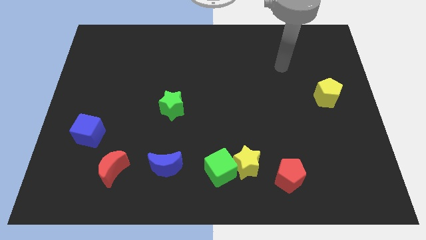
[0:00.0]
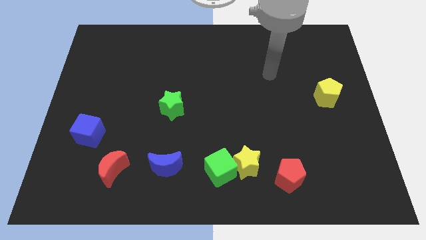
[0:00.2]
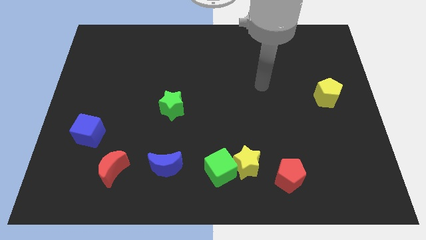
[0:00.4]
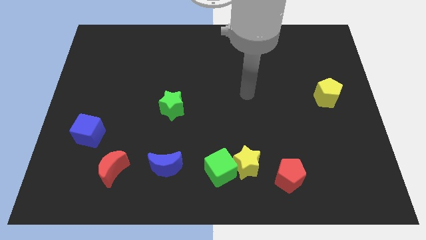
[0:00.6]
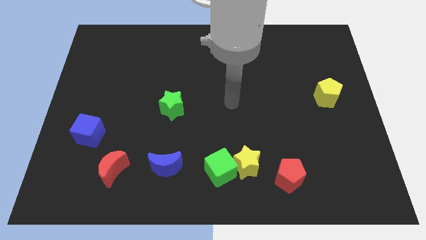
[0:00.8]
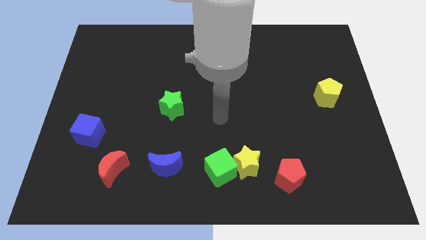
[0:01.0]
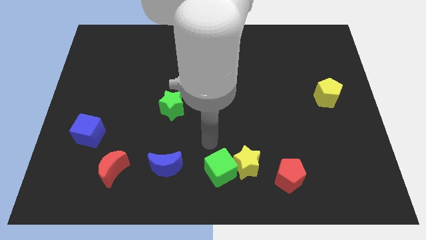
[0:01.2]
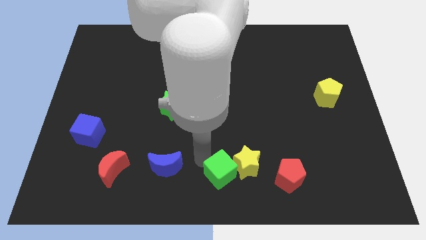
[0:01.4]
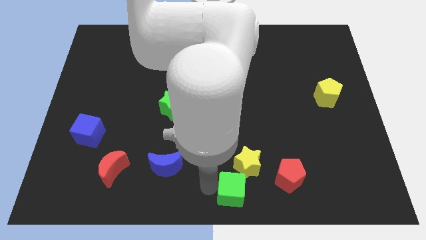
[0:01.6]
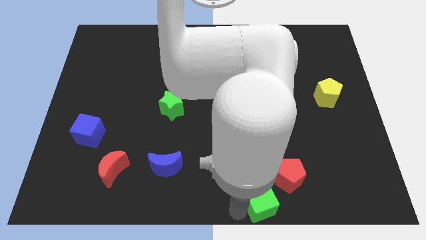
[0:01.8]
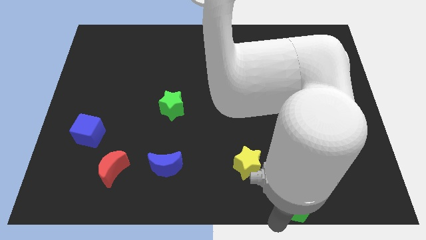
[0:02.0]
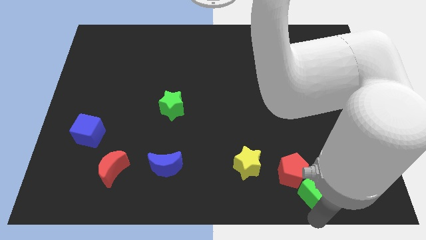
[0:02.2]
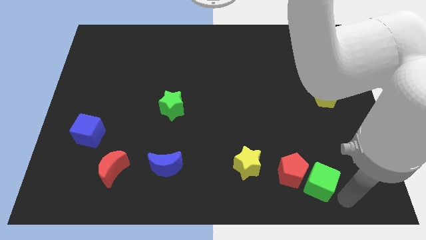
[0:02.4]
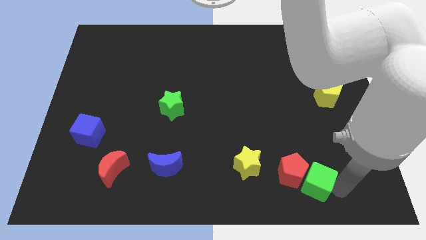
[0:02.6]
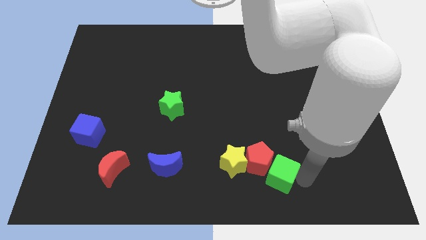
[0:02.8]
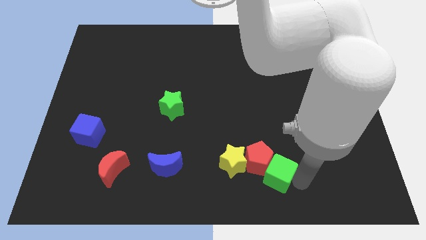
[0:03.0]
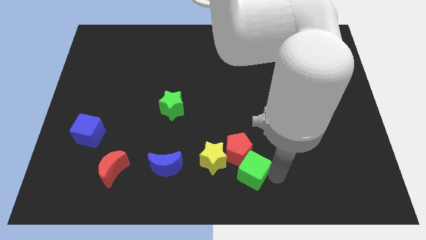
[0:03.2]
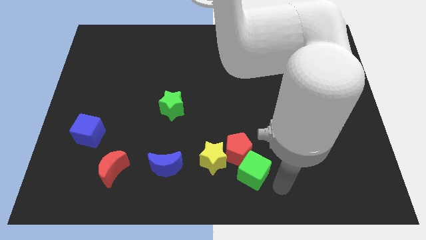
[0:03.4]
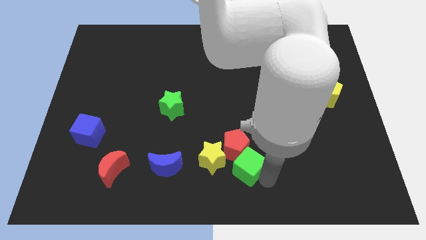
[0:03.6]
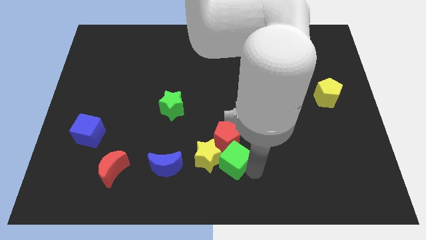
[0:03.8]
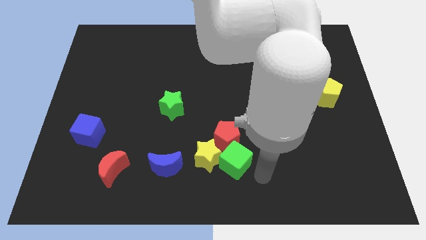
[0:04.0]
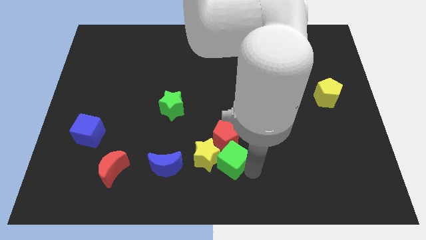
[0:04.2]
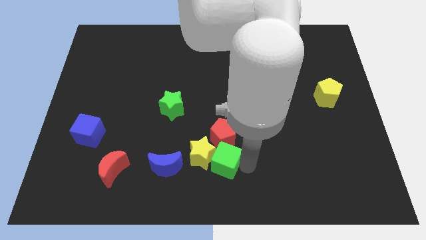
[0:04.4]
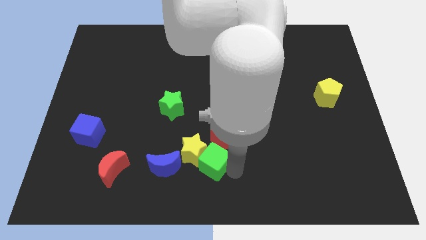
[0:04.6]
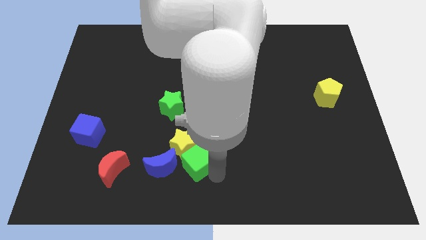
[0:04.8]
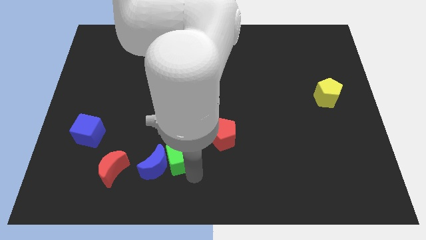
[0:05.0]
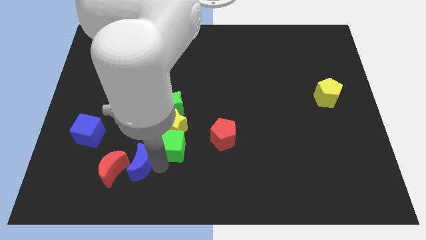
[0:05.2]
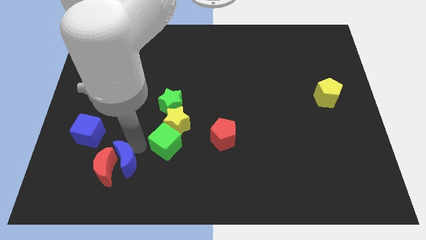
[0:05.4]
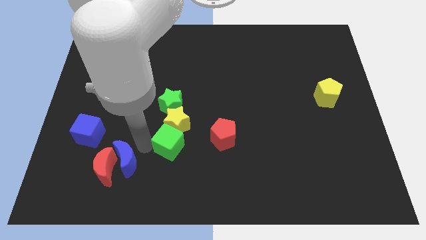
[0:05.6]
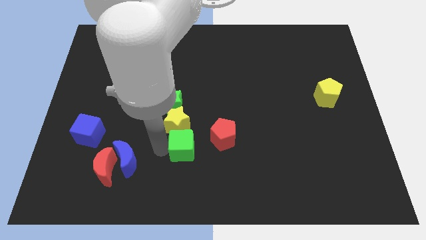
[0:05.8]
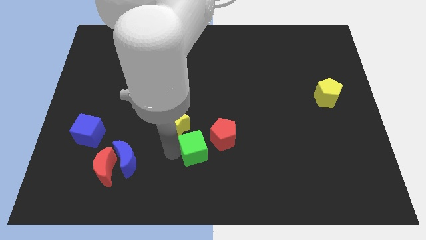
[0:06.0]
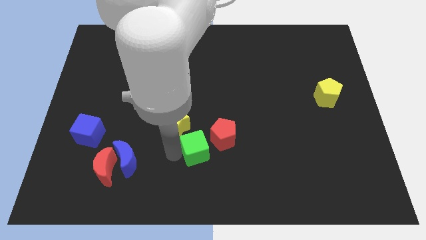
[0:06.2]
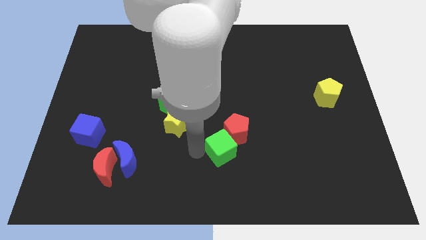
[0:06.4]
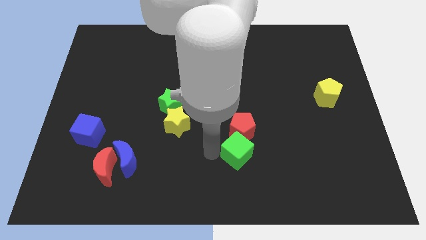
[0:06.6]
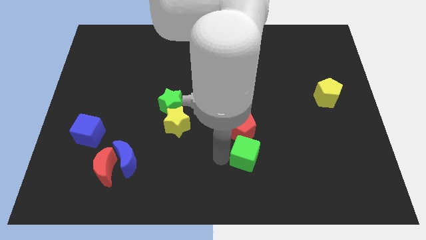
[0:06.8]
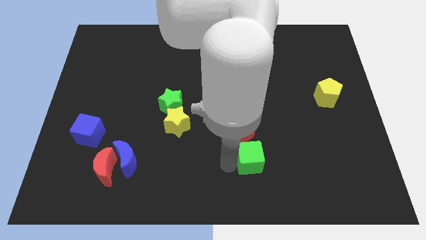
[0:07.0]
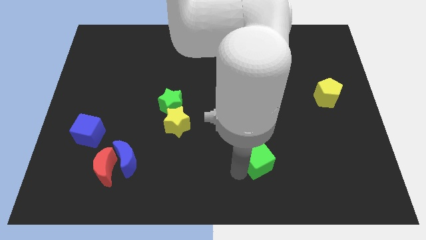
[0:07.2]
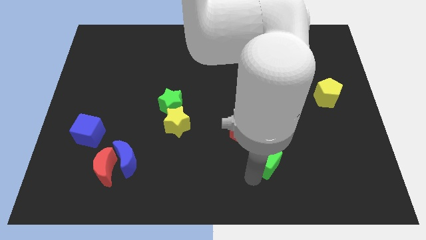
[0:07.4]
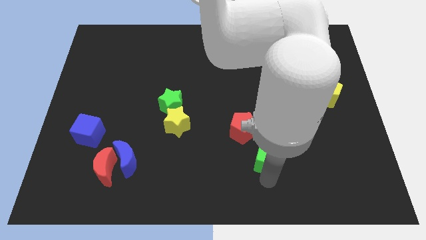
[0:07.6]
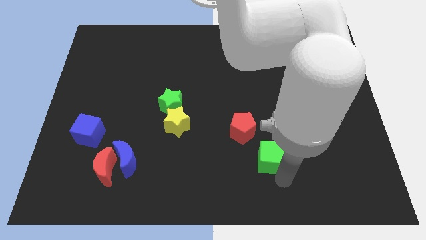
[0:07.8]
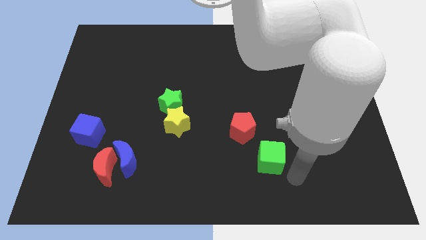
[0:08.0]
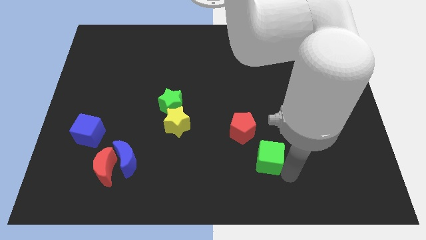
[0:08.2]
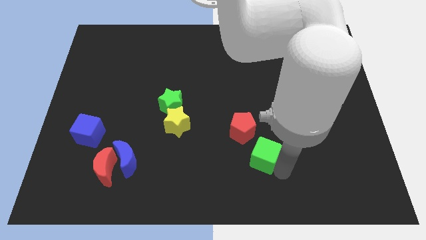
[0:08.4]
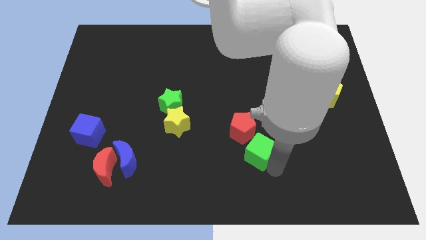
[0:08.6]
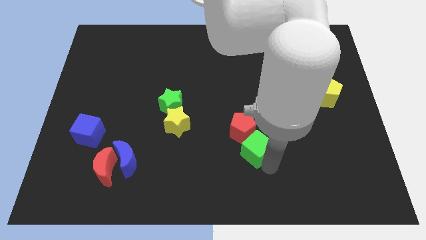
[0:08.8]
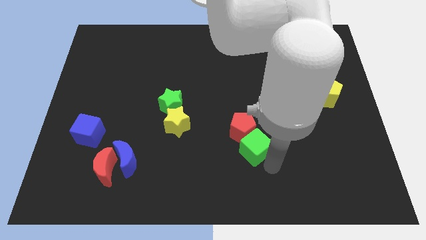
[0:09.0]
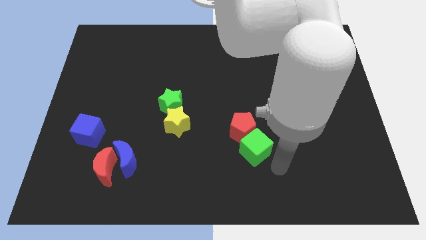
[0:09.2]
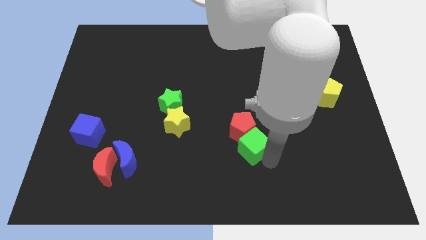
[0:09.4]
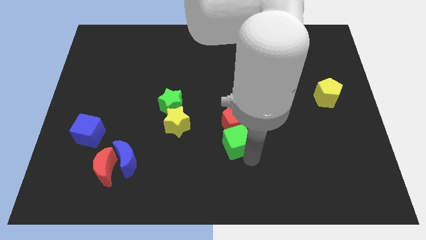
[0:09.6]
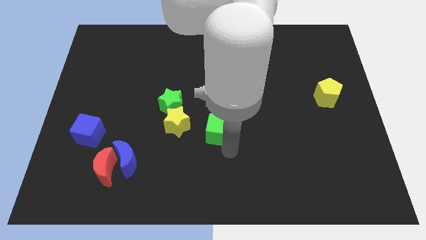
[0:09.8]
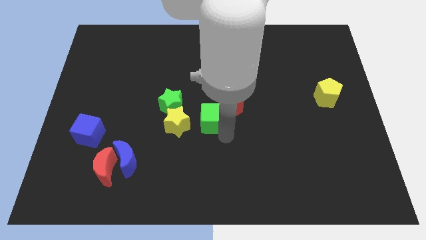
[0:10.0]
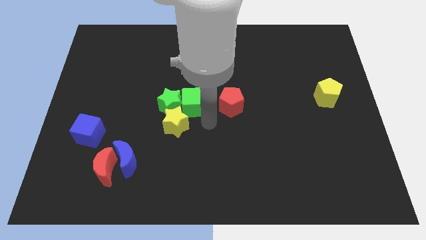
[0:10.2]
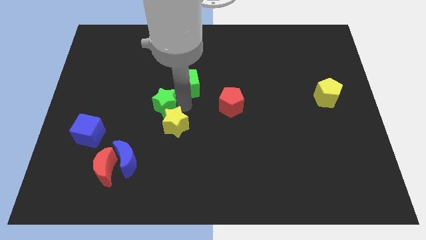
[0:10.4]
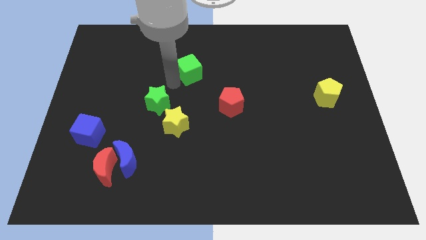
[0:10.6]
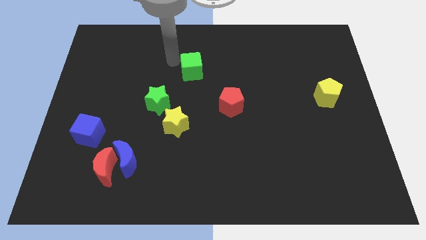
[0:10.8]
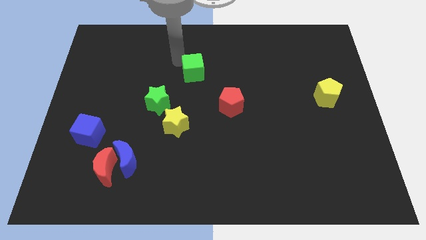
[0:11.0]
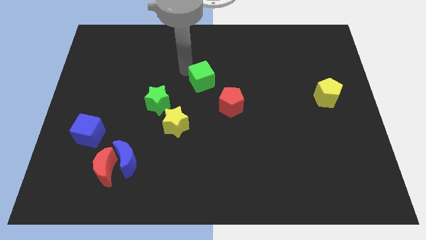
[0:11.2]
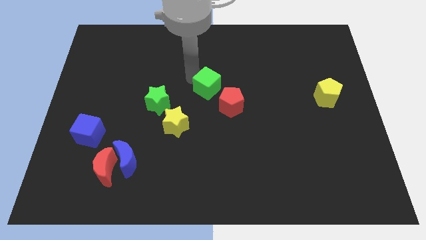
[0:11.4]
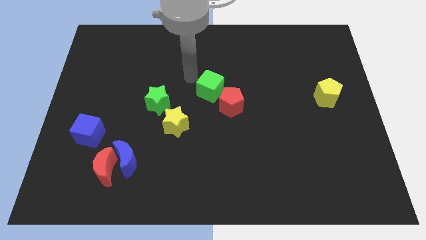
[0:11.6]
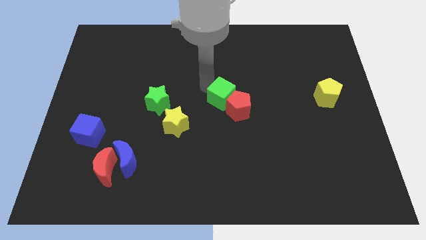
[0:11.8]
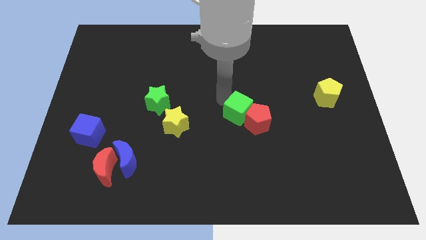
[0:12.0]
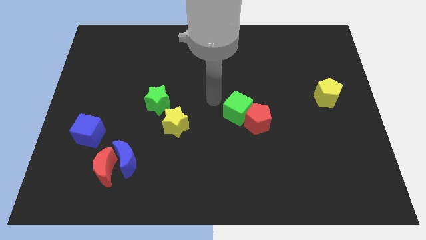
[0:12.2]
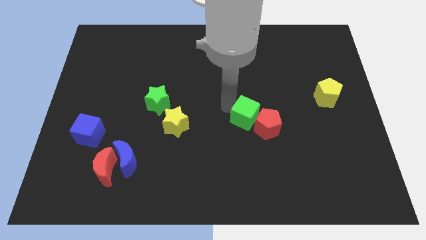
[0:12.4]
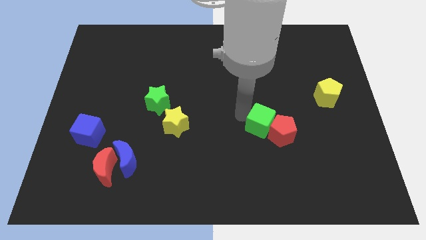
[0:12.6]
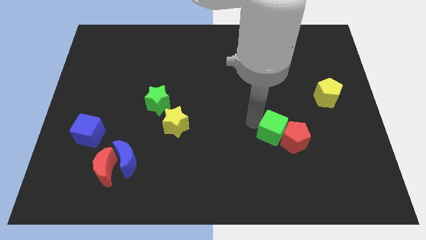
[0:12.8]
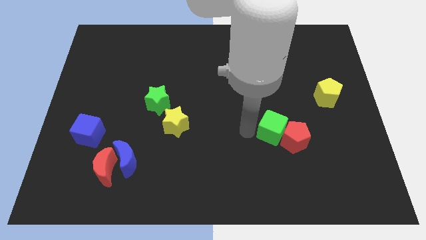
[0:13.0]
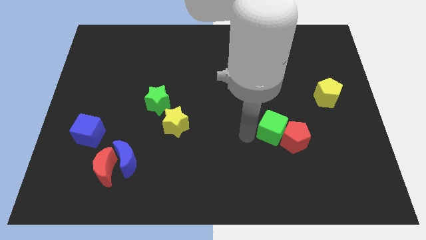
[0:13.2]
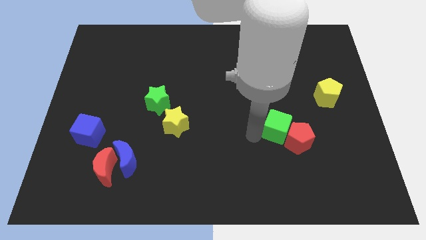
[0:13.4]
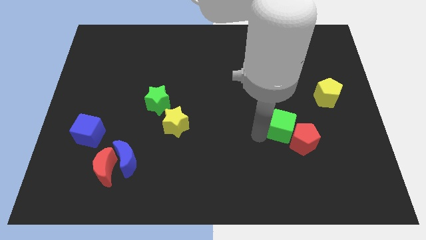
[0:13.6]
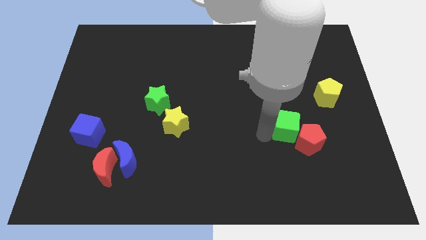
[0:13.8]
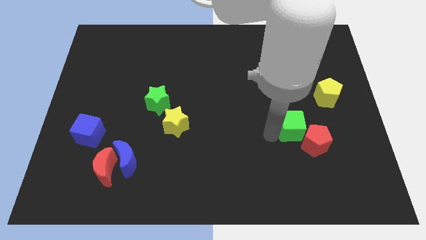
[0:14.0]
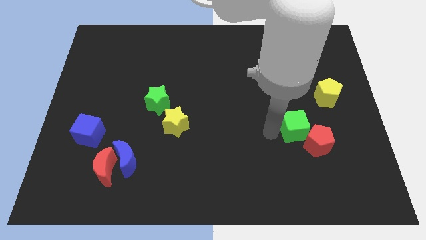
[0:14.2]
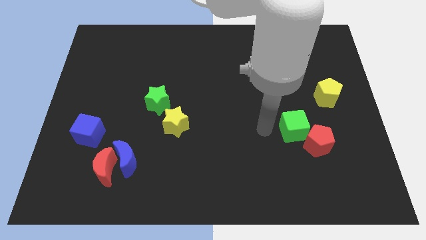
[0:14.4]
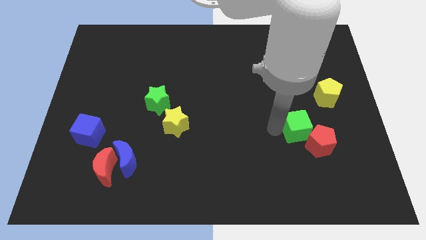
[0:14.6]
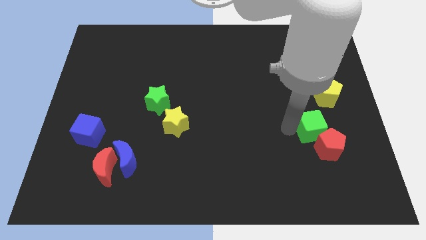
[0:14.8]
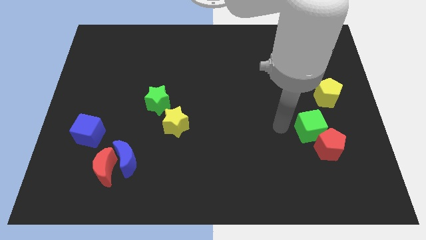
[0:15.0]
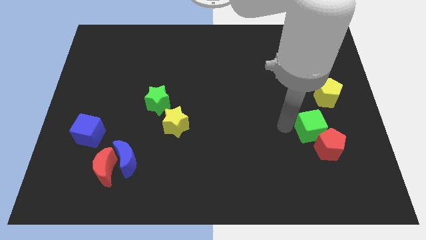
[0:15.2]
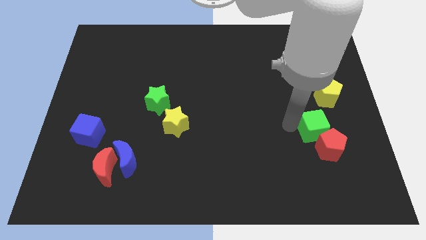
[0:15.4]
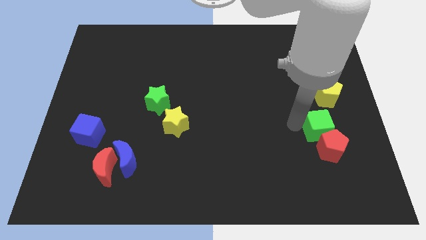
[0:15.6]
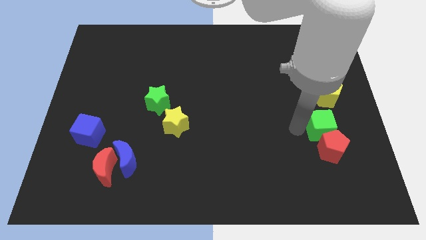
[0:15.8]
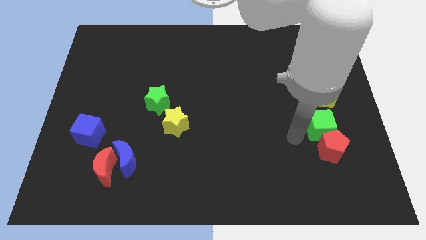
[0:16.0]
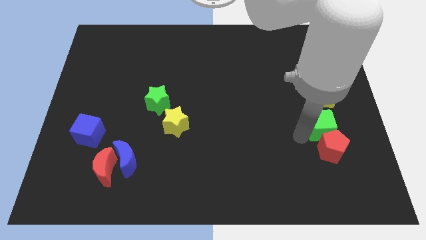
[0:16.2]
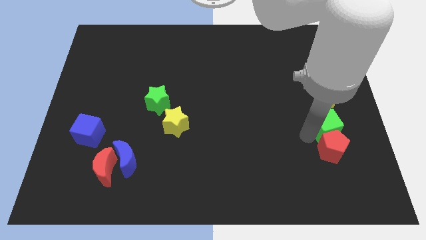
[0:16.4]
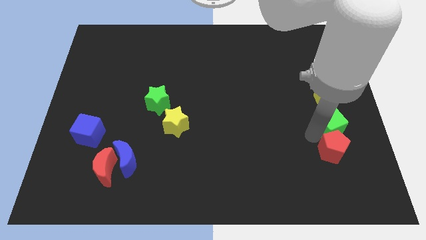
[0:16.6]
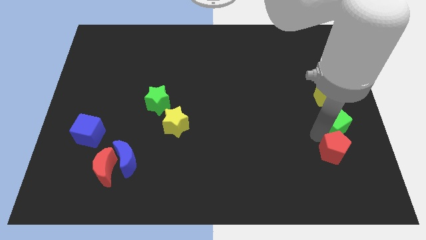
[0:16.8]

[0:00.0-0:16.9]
put the green cube to the right side
